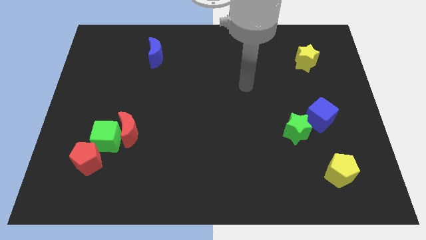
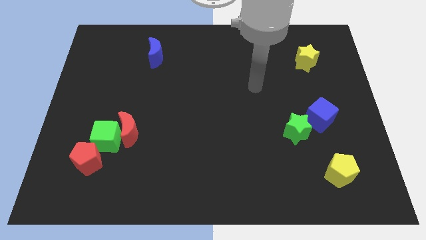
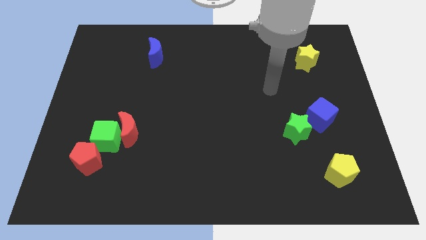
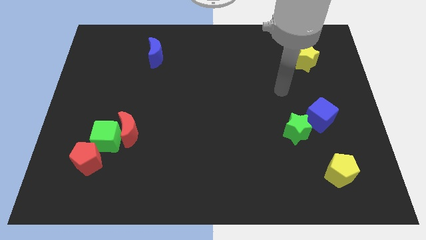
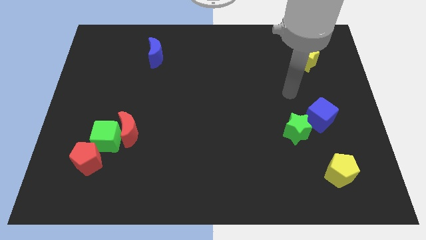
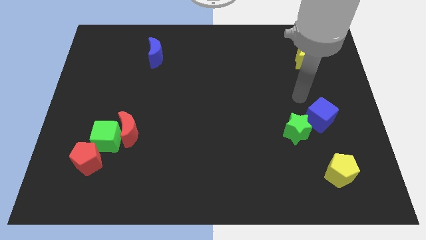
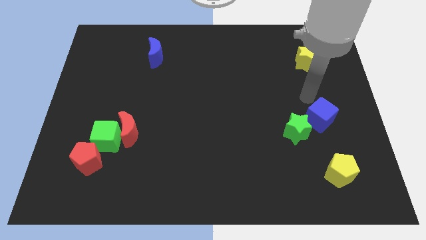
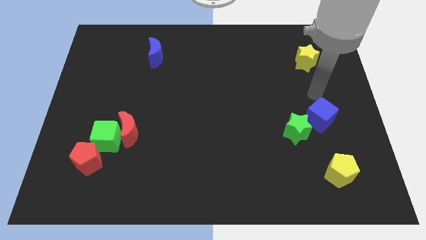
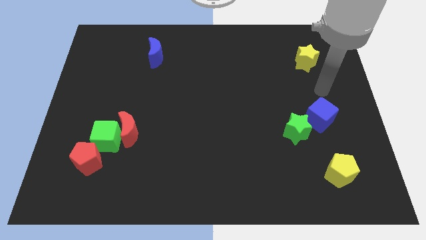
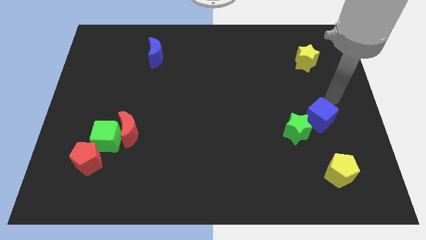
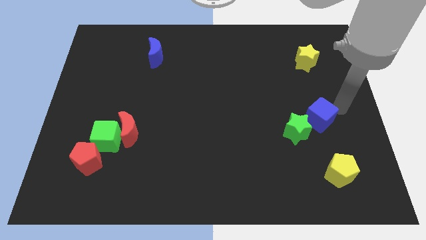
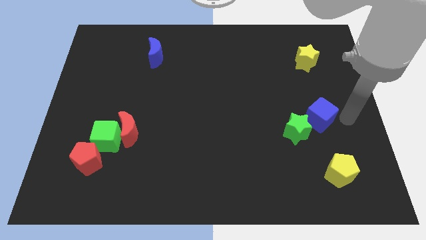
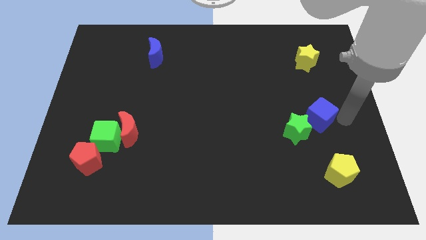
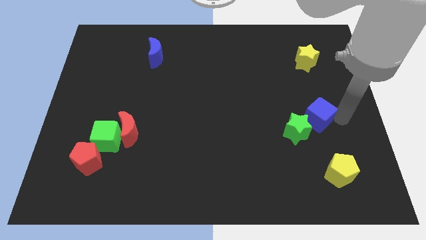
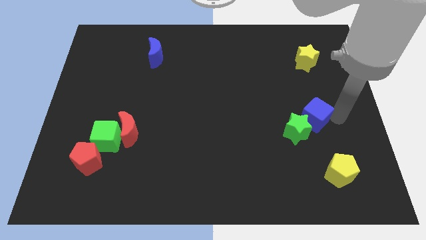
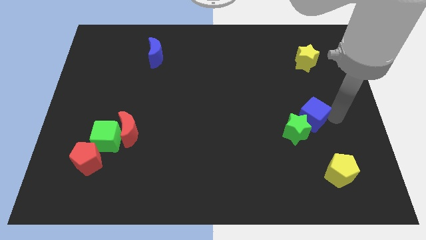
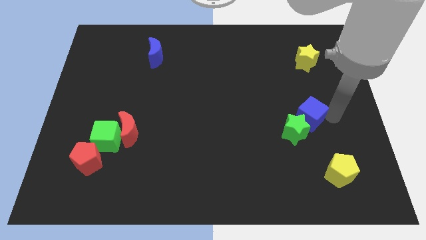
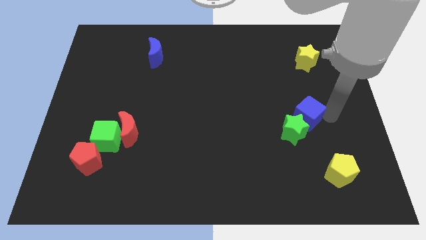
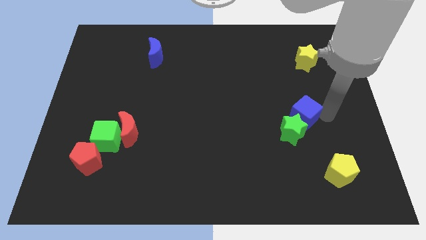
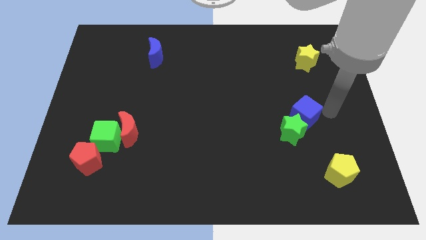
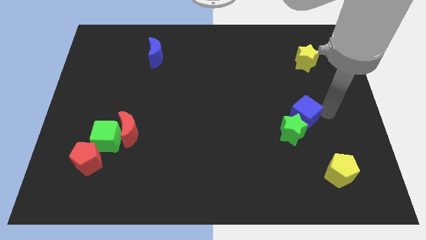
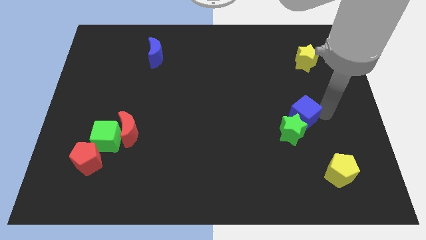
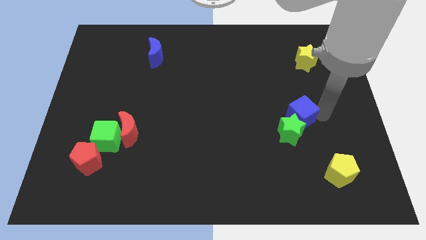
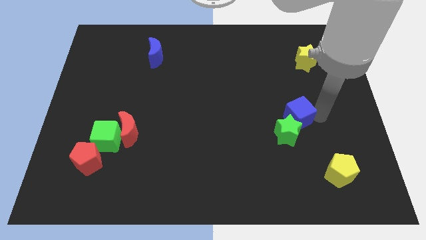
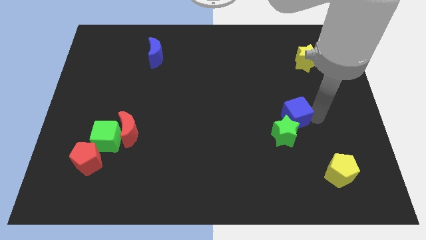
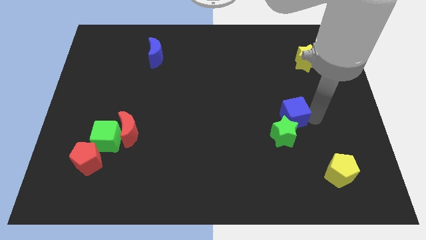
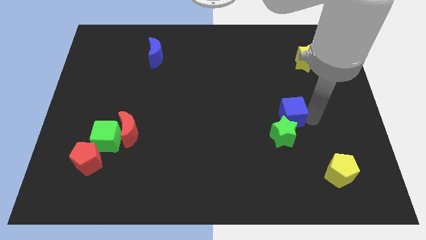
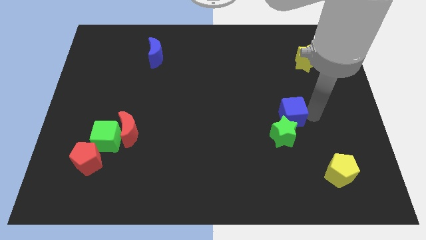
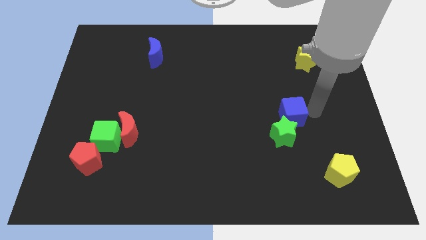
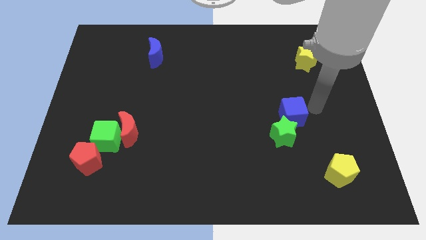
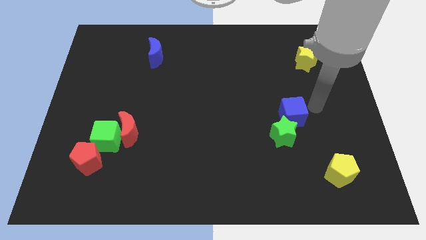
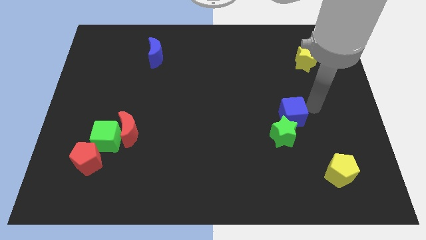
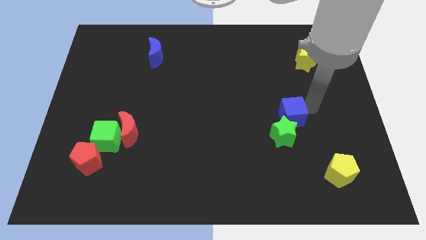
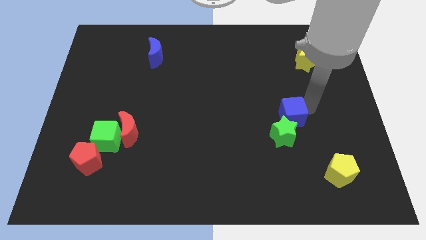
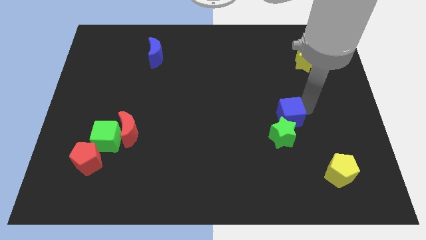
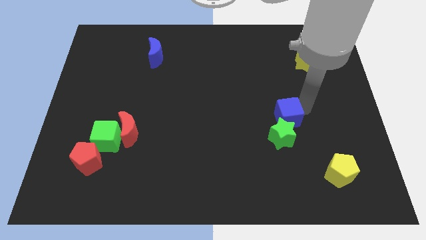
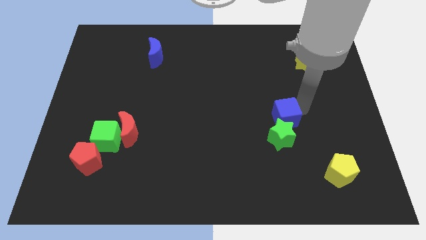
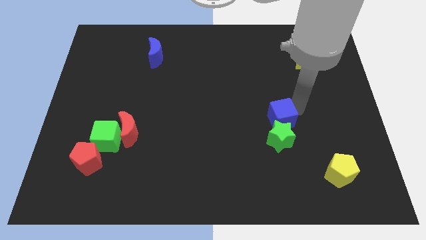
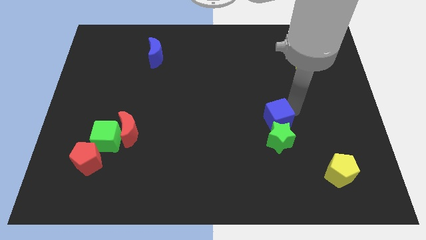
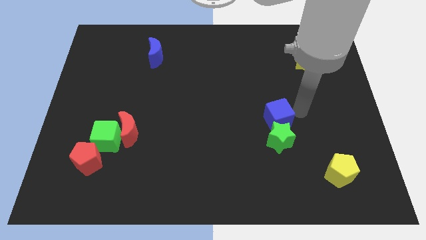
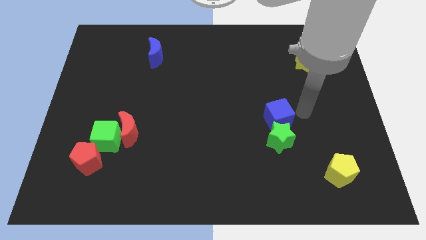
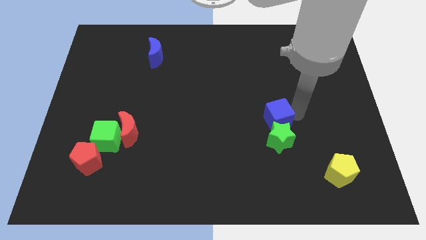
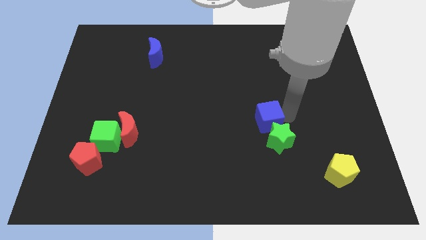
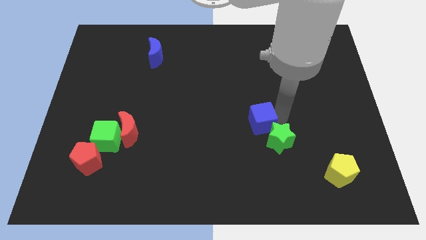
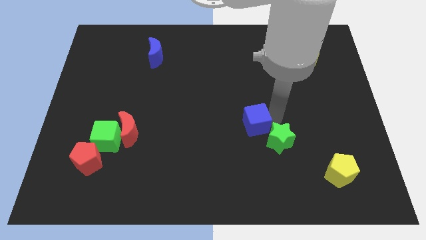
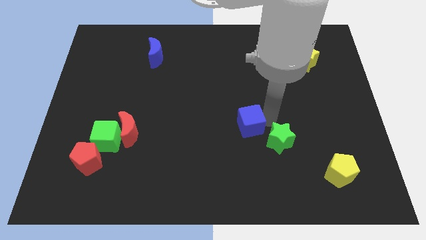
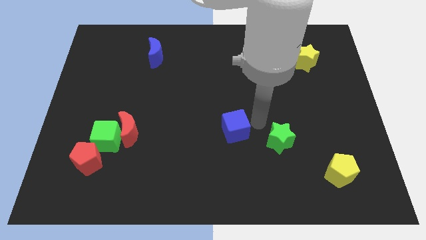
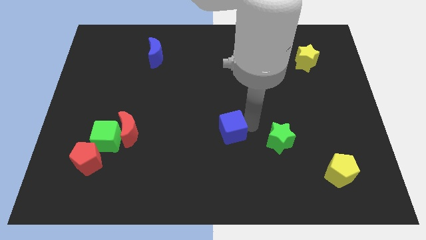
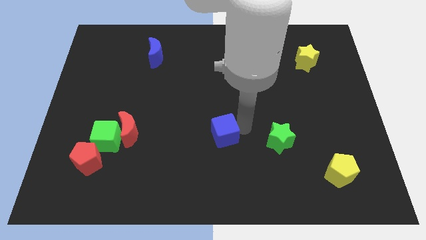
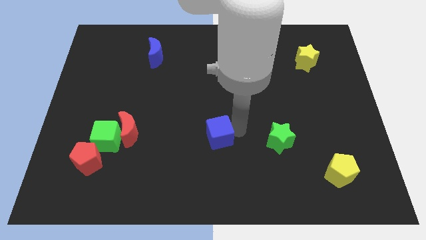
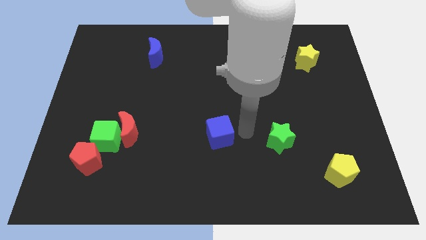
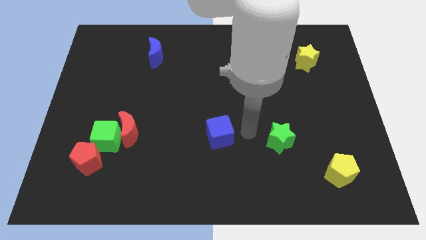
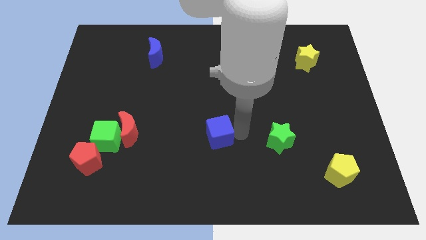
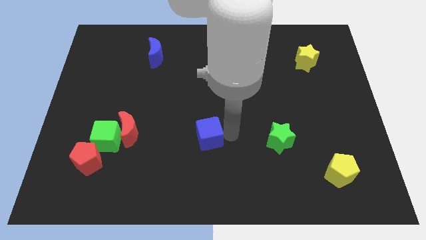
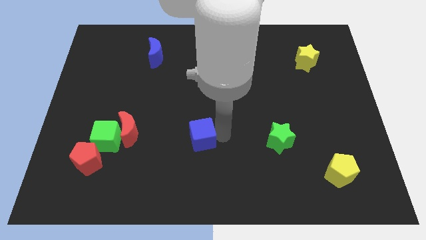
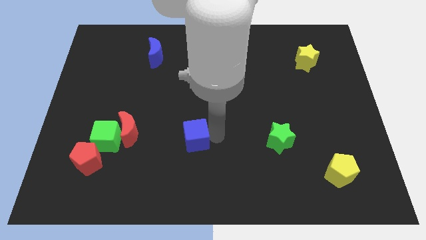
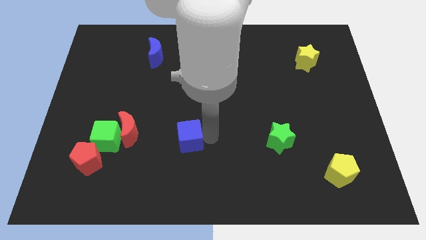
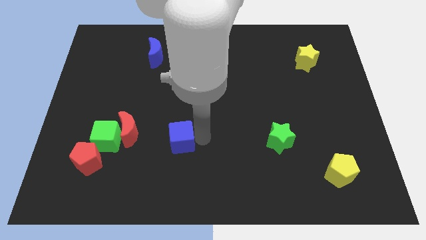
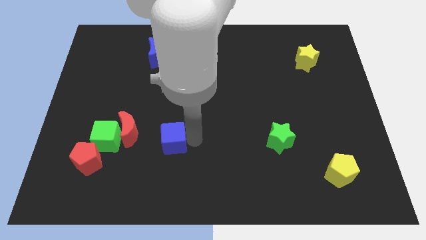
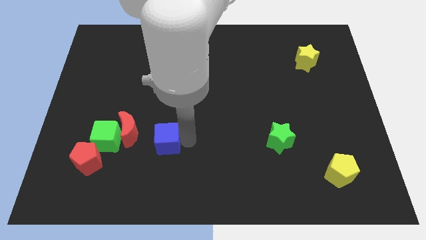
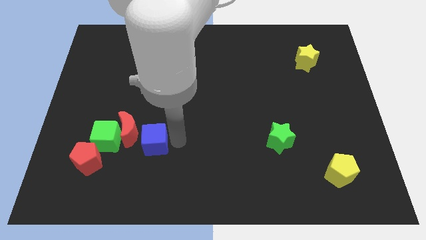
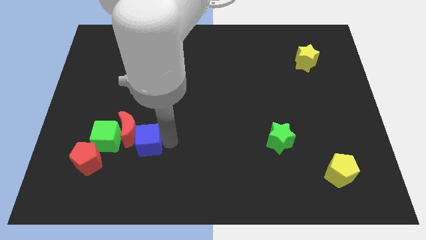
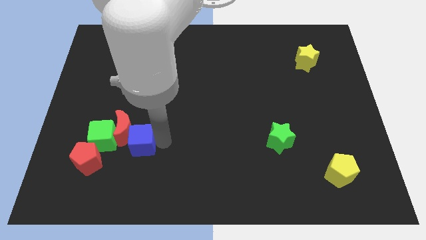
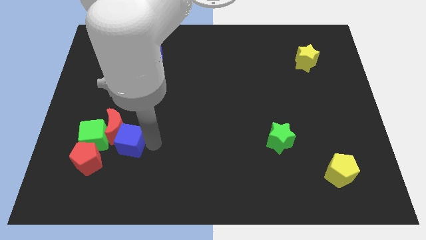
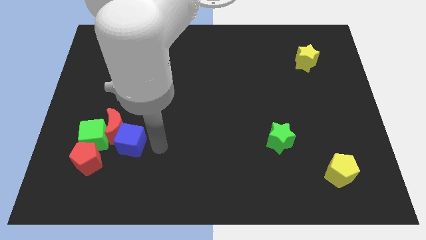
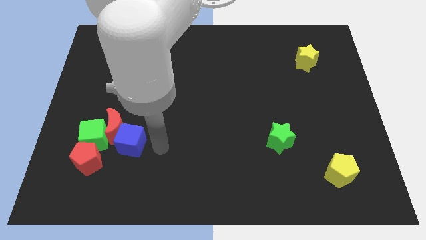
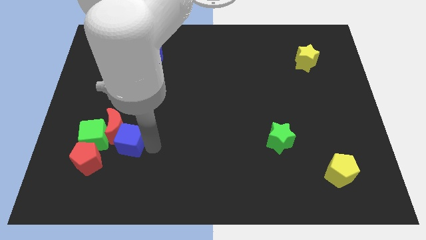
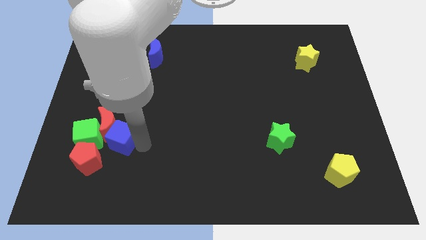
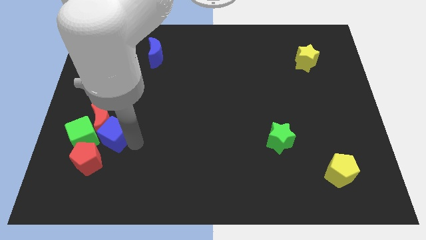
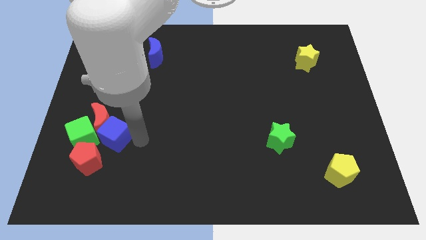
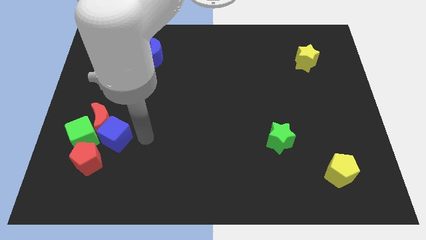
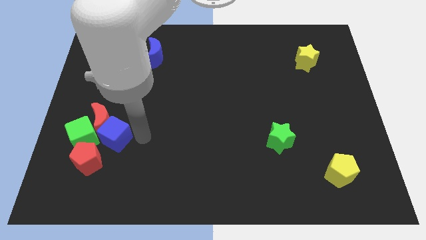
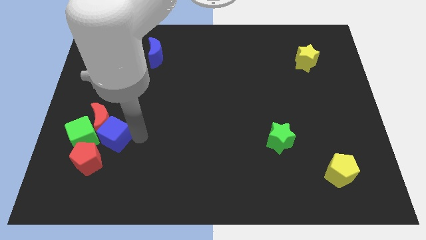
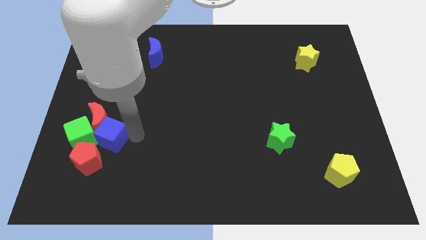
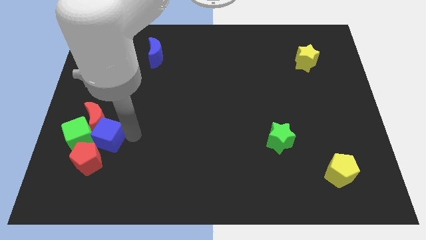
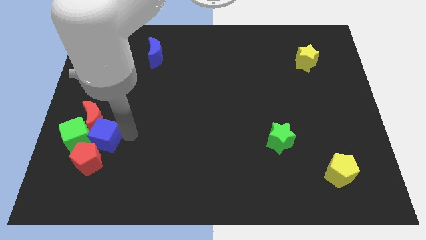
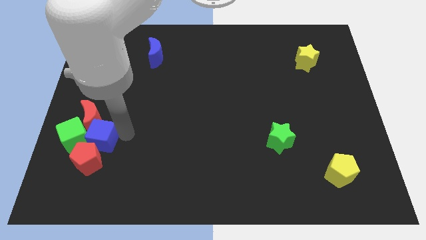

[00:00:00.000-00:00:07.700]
move the blue cube close to the green cube

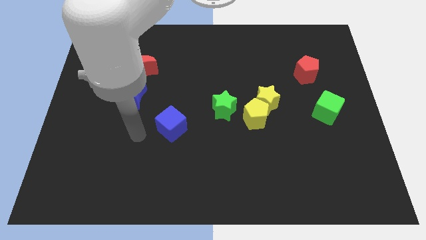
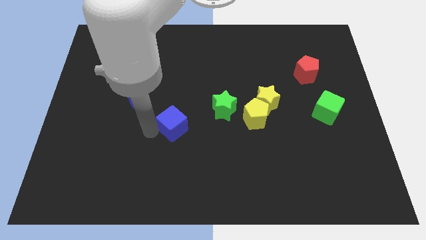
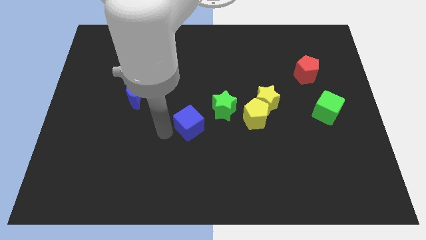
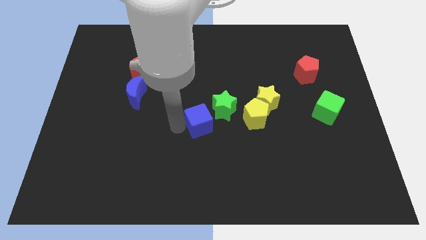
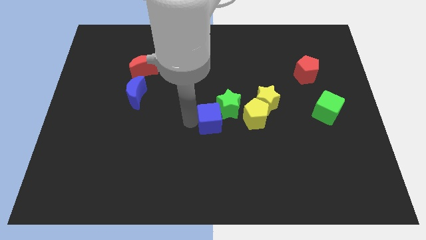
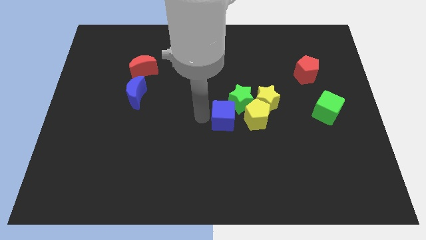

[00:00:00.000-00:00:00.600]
put the green star towards the yellow star
